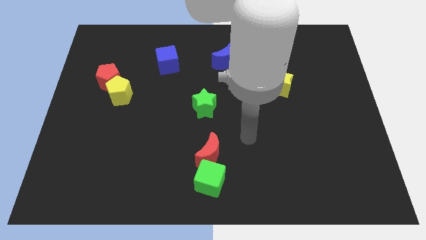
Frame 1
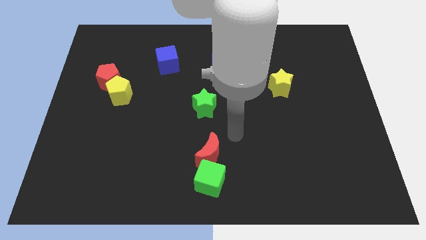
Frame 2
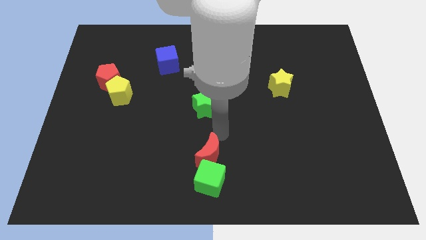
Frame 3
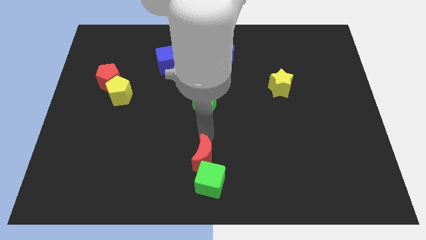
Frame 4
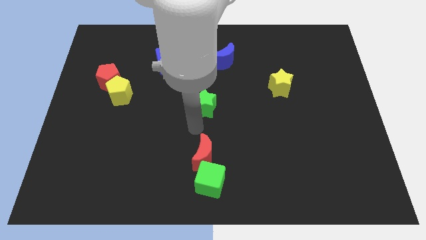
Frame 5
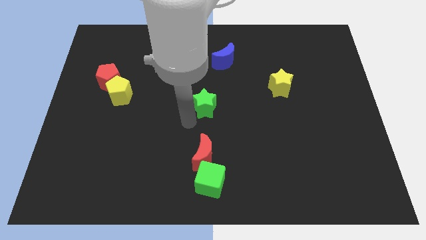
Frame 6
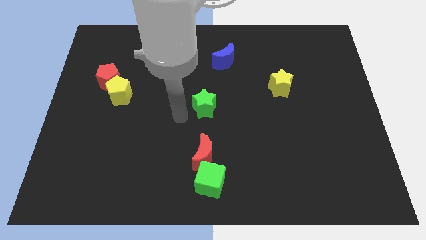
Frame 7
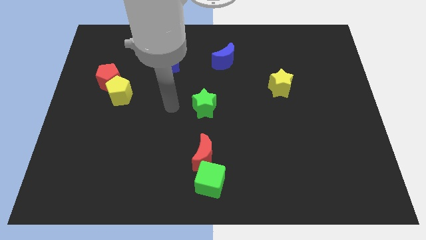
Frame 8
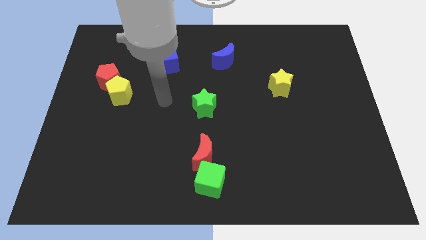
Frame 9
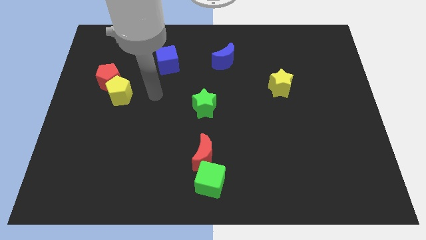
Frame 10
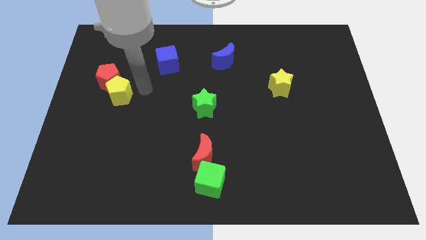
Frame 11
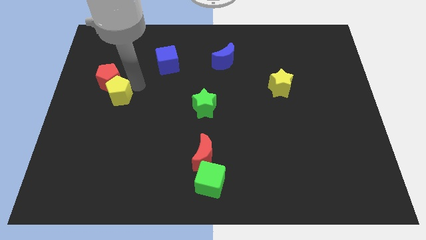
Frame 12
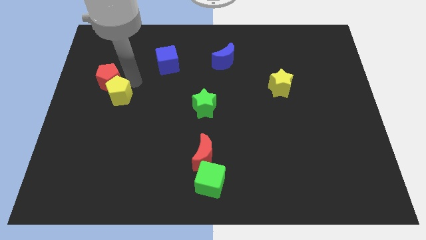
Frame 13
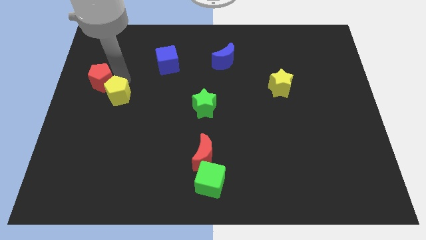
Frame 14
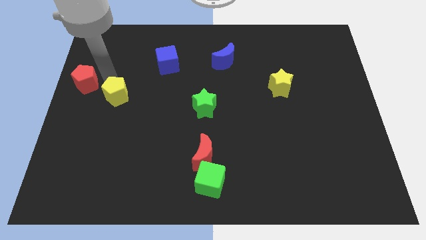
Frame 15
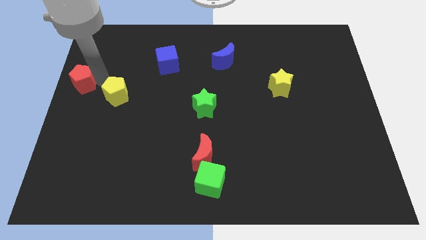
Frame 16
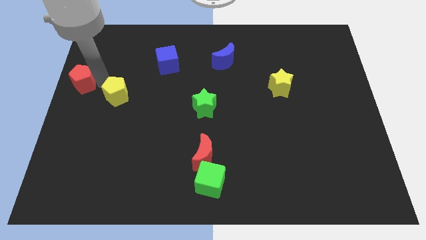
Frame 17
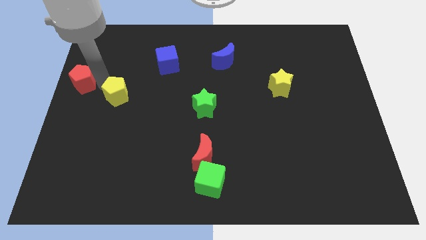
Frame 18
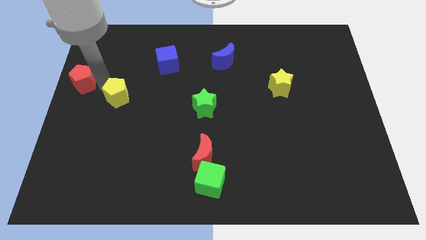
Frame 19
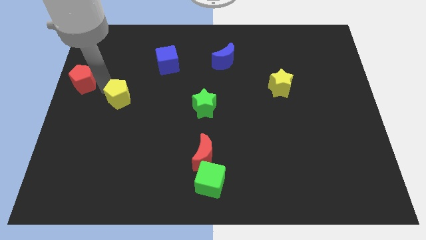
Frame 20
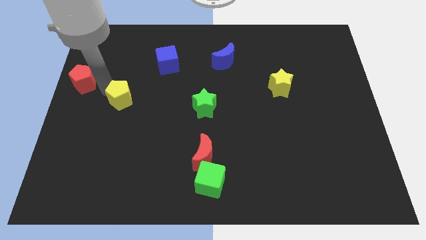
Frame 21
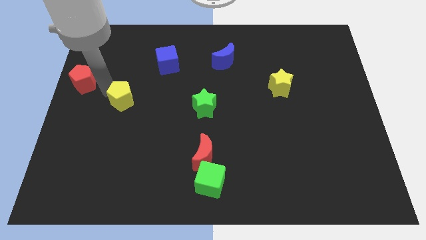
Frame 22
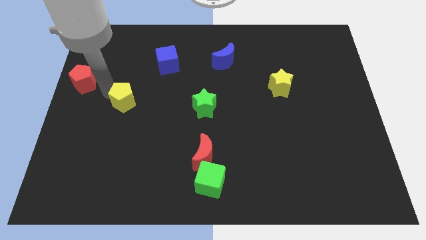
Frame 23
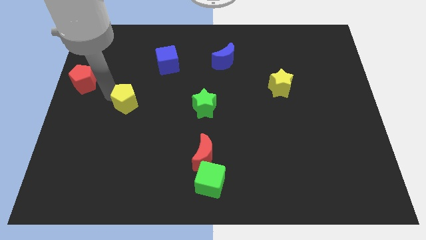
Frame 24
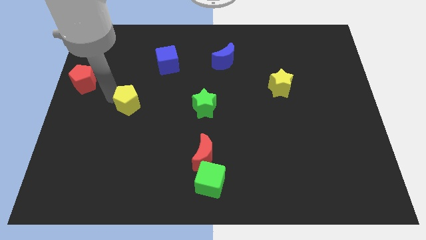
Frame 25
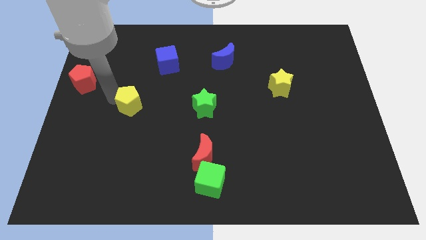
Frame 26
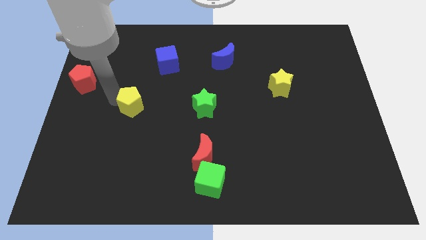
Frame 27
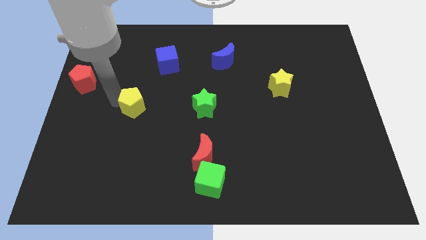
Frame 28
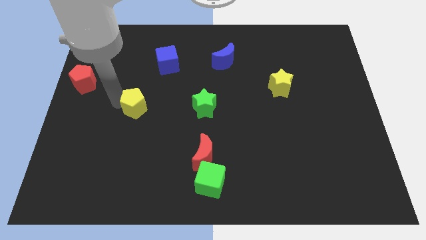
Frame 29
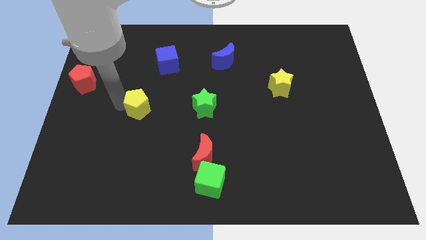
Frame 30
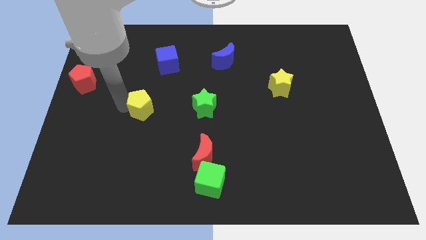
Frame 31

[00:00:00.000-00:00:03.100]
move the yellow pentagon a little bit down and to the right diagonally

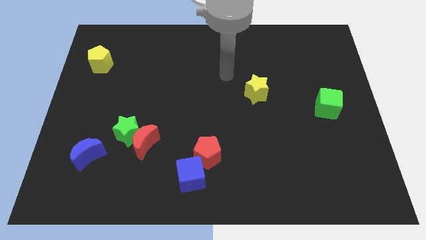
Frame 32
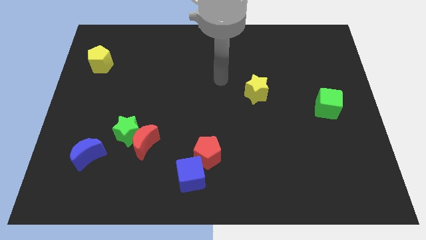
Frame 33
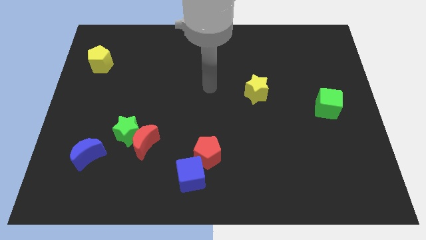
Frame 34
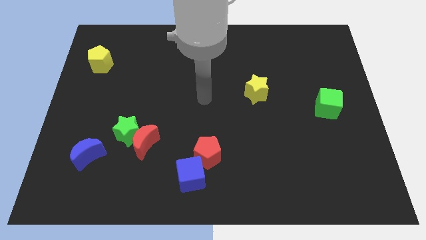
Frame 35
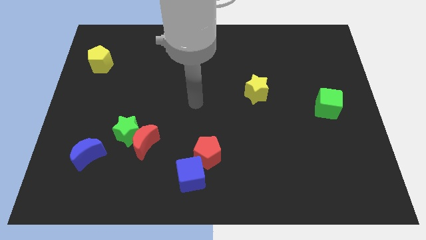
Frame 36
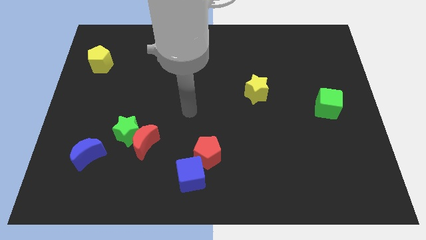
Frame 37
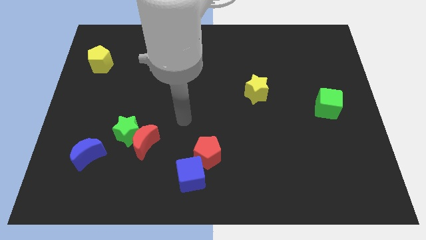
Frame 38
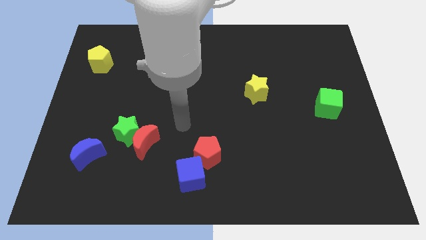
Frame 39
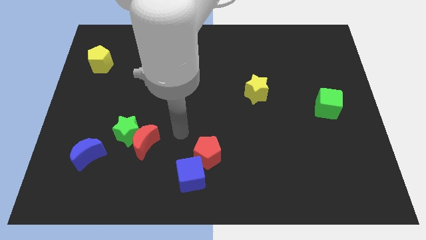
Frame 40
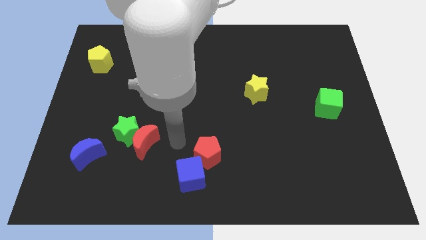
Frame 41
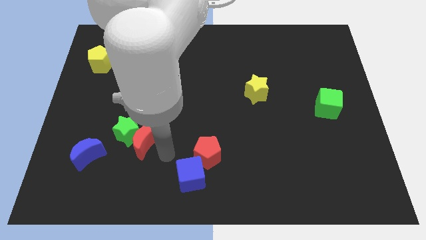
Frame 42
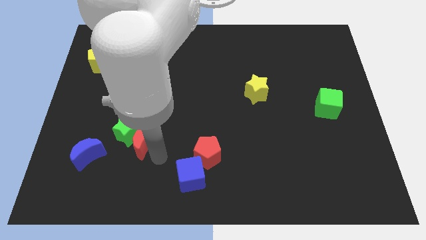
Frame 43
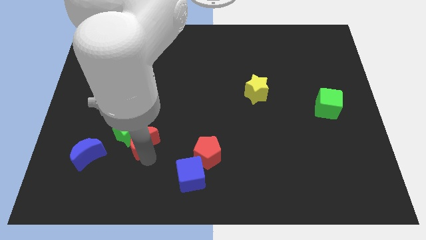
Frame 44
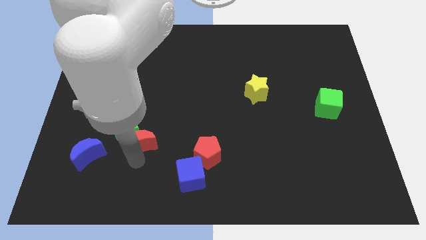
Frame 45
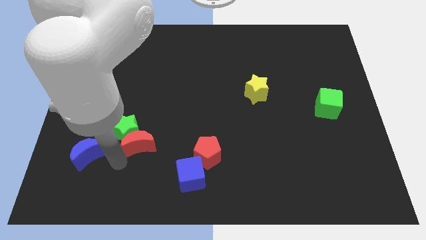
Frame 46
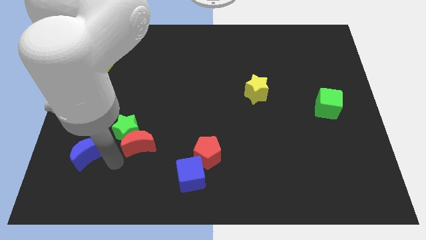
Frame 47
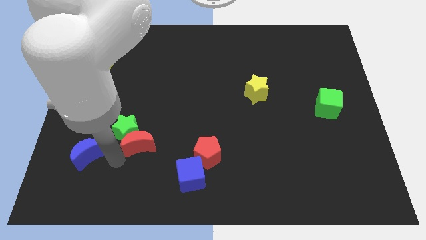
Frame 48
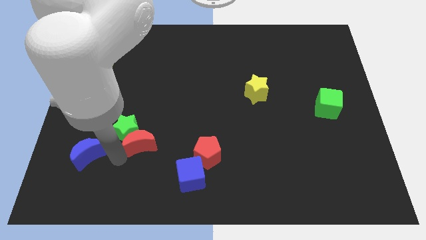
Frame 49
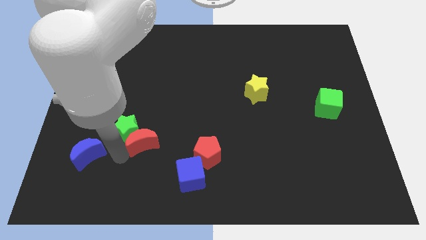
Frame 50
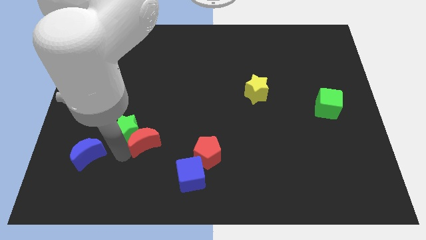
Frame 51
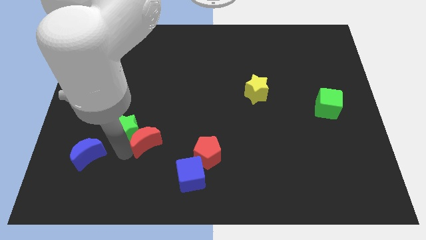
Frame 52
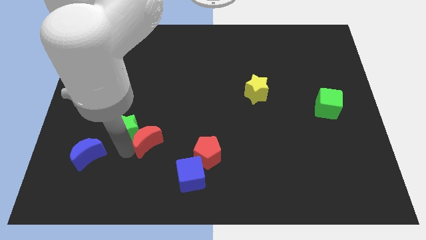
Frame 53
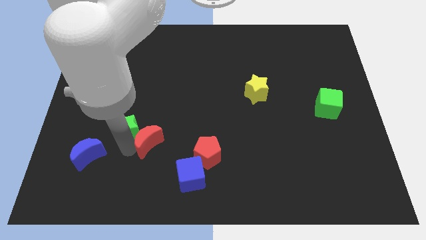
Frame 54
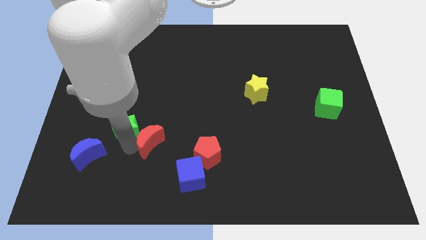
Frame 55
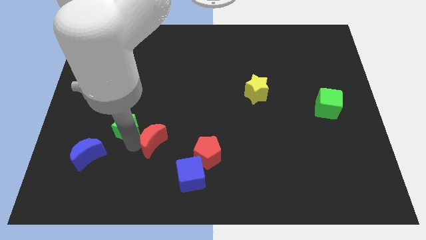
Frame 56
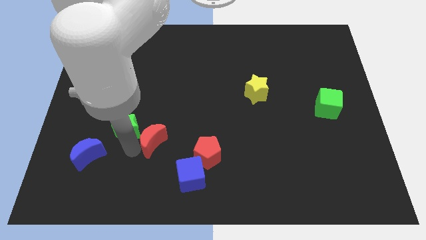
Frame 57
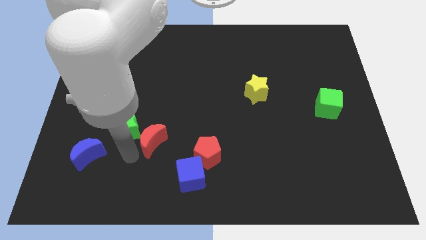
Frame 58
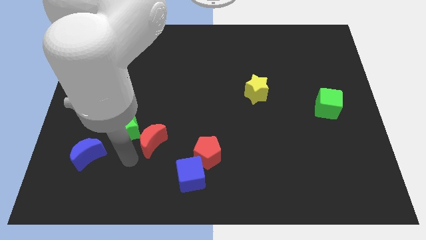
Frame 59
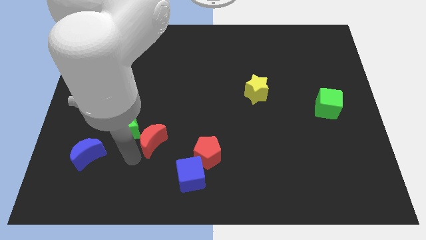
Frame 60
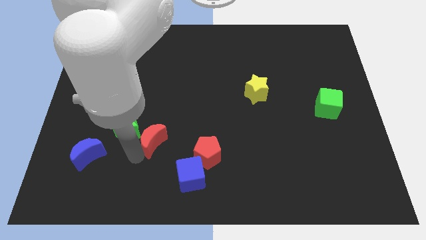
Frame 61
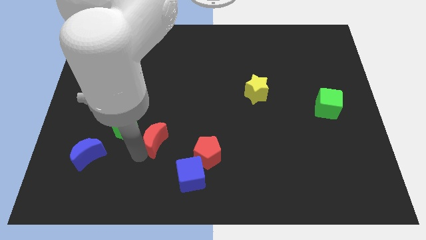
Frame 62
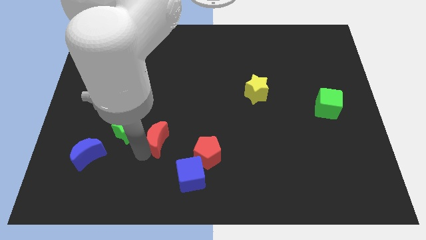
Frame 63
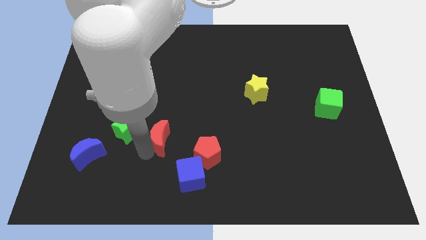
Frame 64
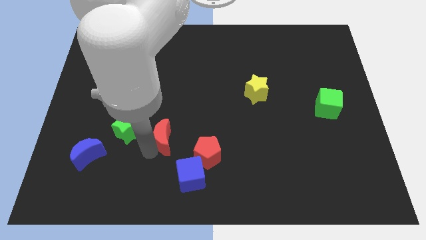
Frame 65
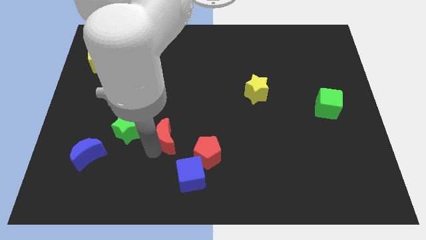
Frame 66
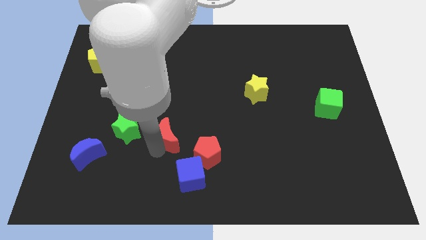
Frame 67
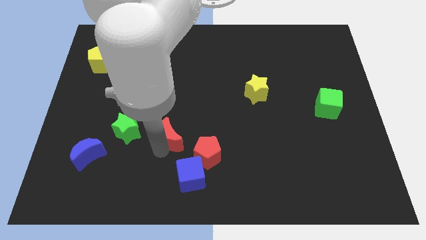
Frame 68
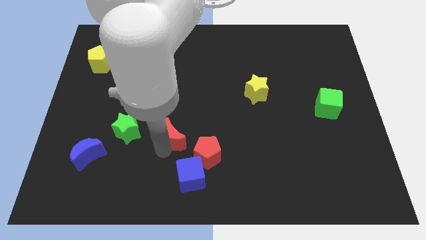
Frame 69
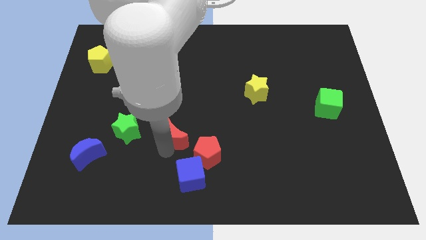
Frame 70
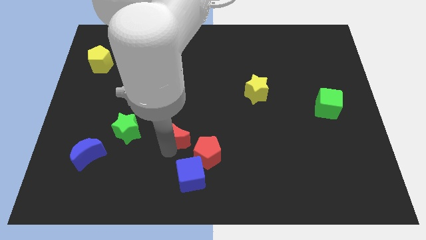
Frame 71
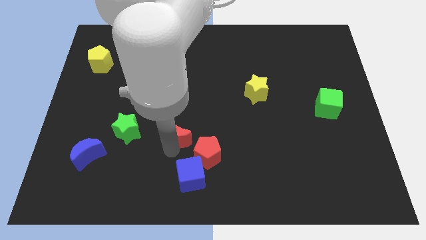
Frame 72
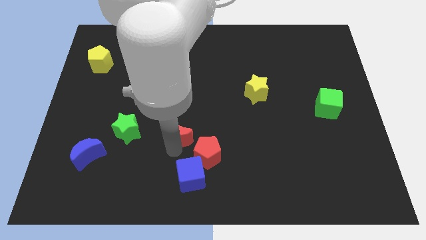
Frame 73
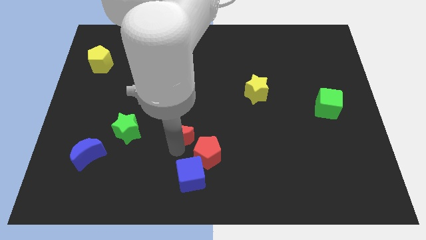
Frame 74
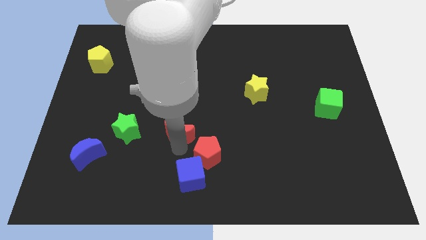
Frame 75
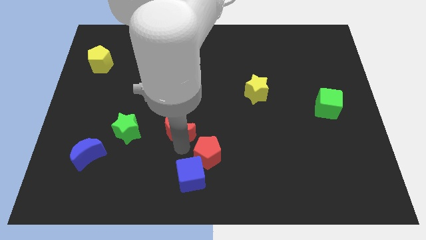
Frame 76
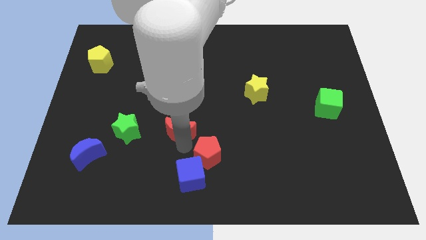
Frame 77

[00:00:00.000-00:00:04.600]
slightly move the red moon up and right

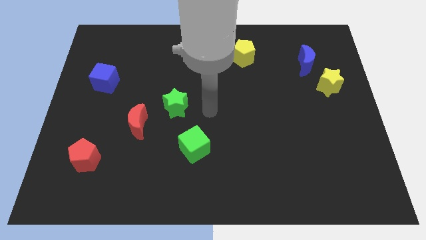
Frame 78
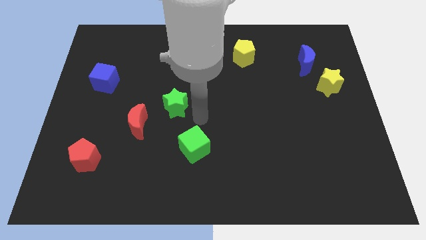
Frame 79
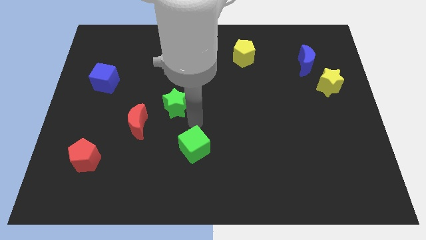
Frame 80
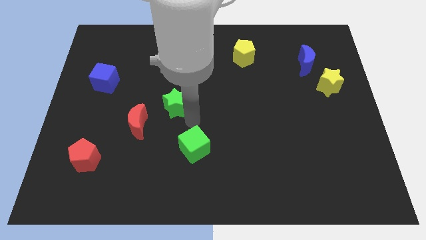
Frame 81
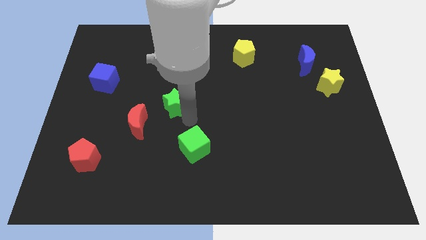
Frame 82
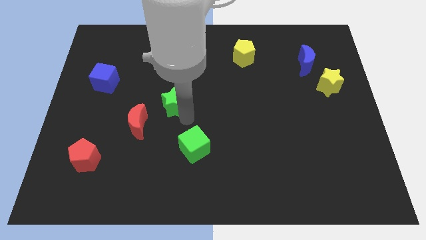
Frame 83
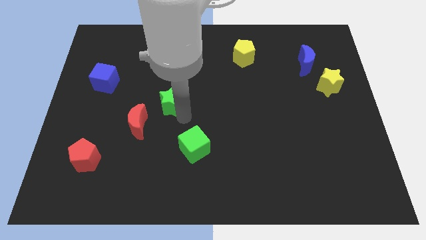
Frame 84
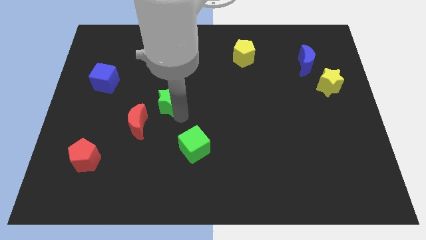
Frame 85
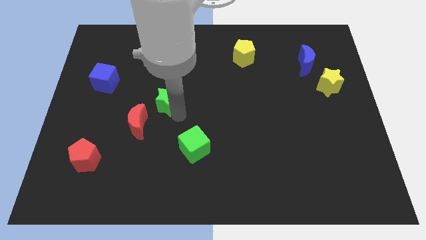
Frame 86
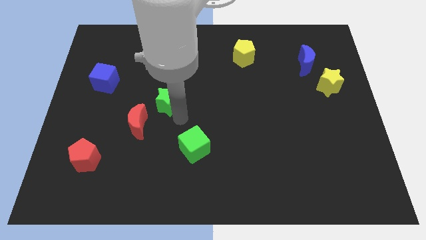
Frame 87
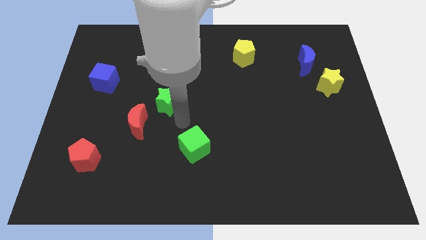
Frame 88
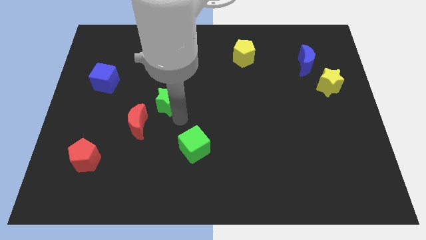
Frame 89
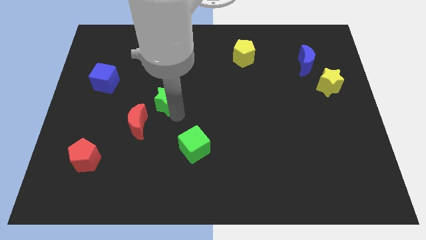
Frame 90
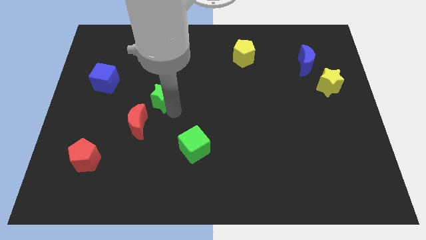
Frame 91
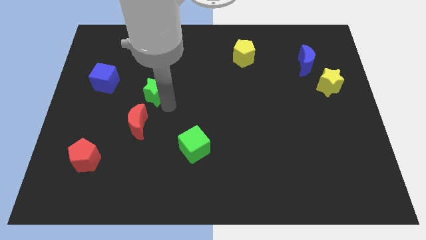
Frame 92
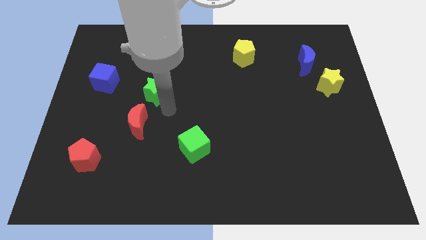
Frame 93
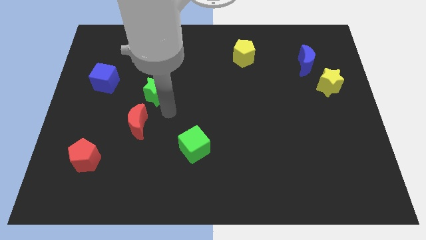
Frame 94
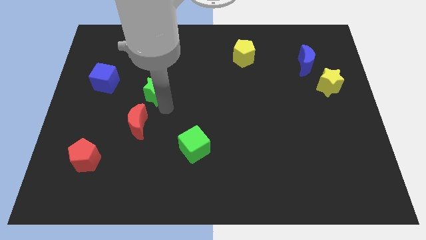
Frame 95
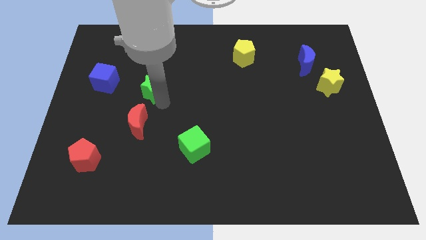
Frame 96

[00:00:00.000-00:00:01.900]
slightly slide the green star up and to the left
